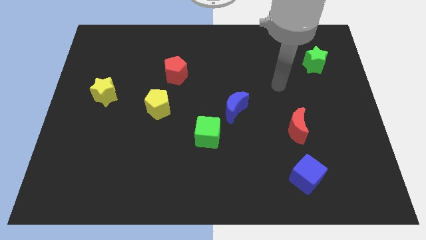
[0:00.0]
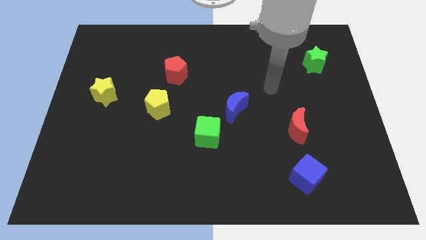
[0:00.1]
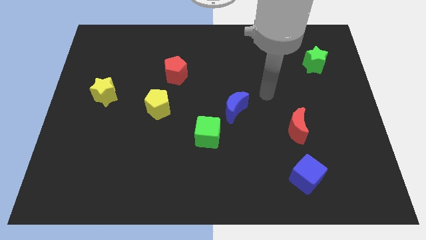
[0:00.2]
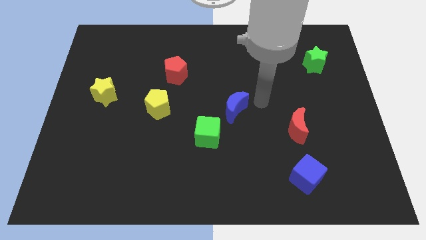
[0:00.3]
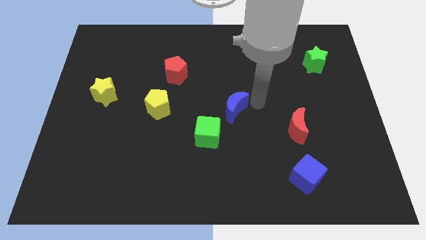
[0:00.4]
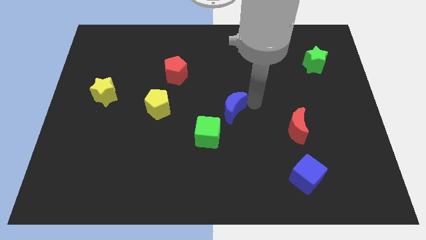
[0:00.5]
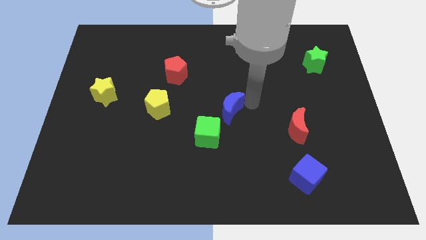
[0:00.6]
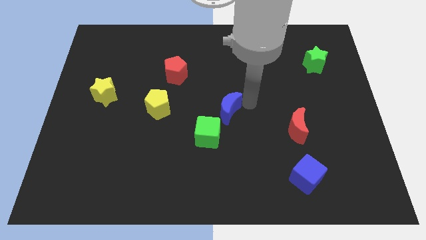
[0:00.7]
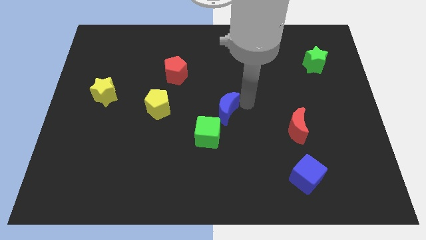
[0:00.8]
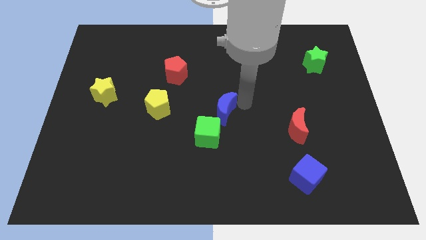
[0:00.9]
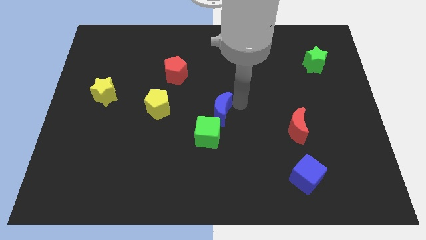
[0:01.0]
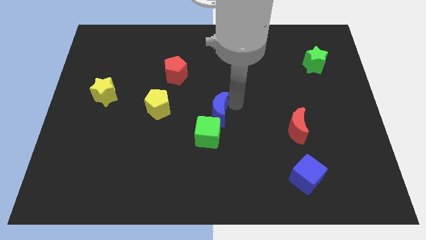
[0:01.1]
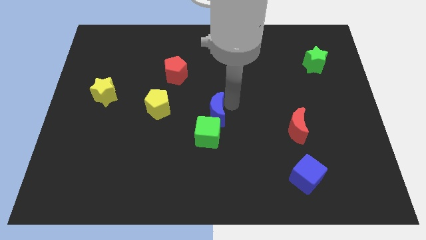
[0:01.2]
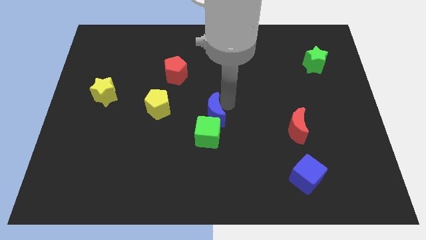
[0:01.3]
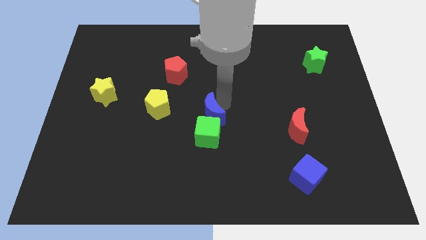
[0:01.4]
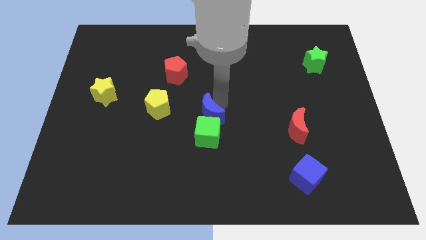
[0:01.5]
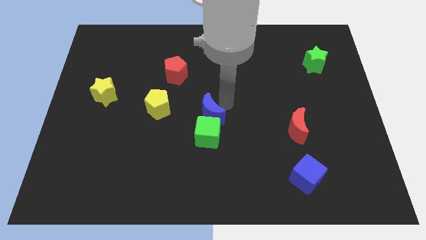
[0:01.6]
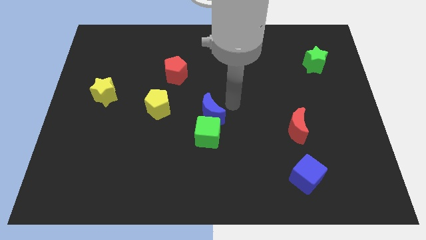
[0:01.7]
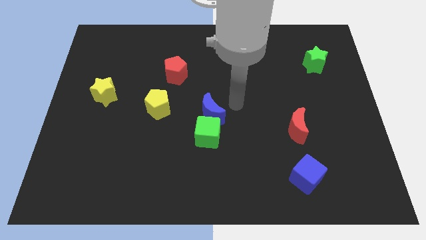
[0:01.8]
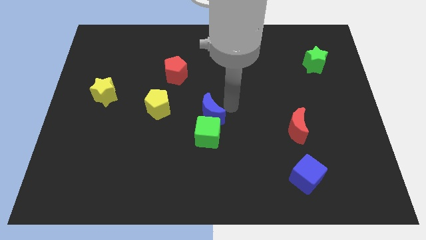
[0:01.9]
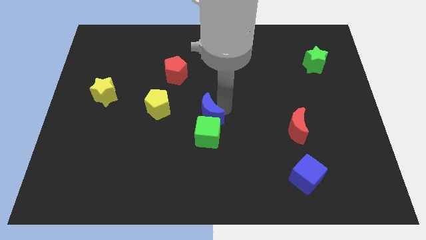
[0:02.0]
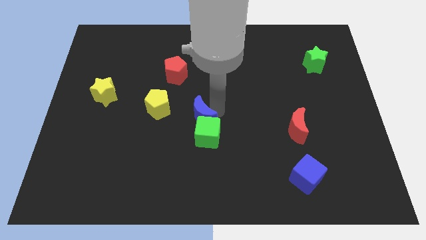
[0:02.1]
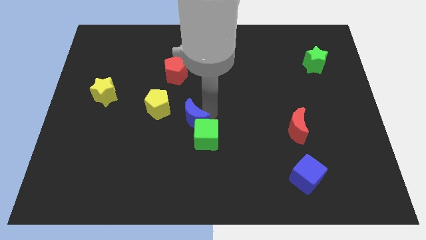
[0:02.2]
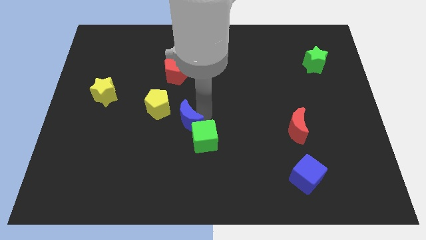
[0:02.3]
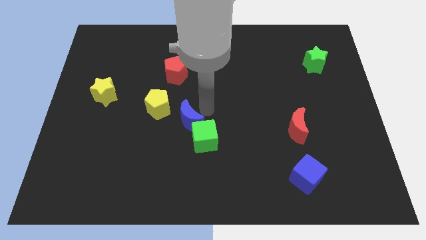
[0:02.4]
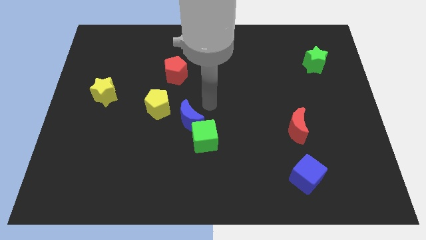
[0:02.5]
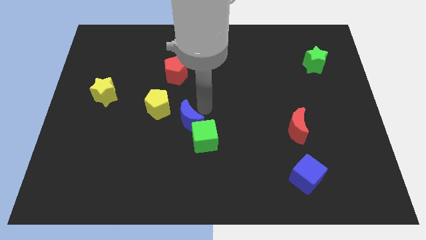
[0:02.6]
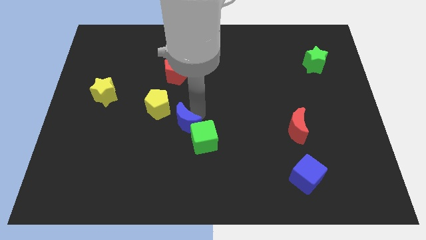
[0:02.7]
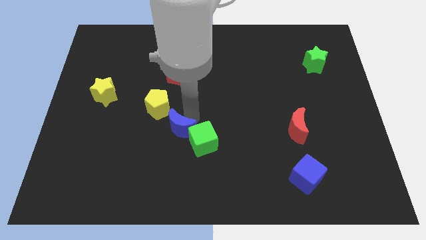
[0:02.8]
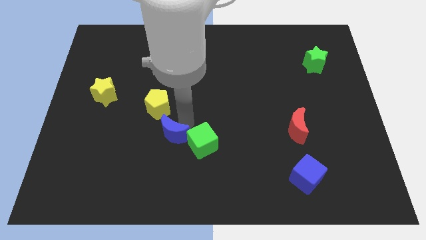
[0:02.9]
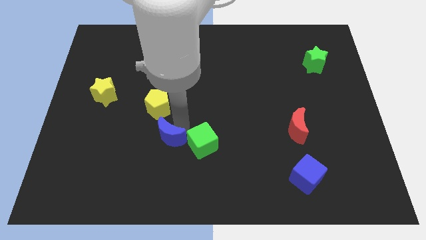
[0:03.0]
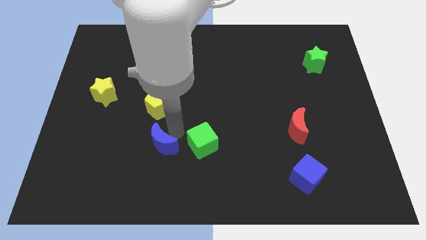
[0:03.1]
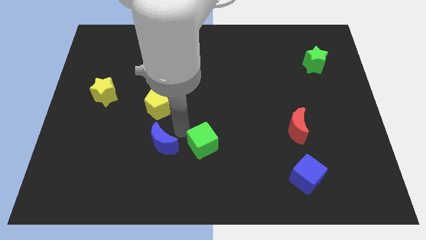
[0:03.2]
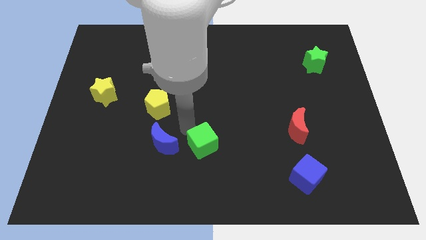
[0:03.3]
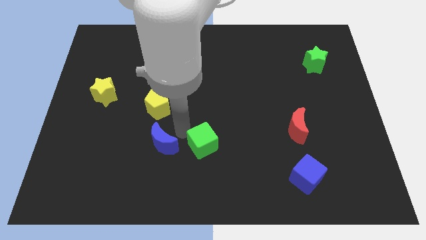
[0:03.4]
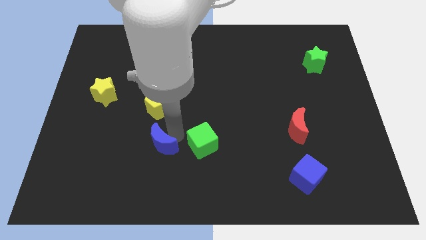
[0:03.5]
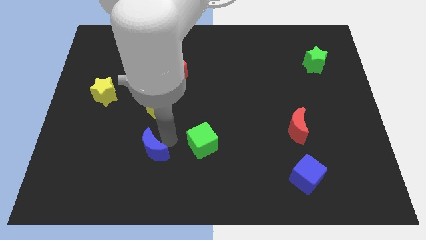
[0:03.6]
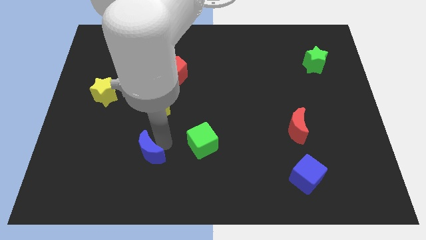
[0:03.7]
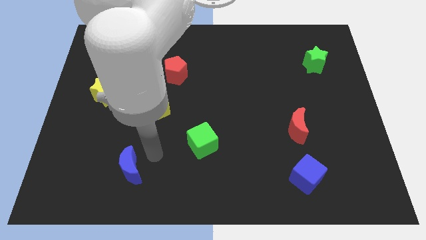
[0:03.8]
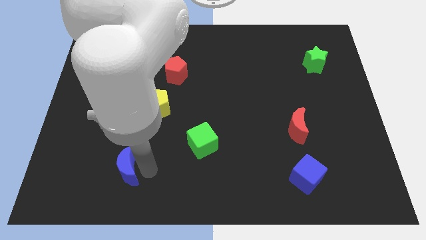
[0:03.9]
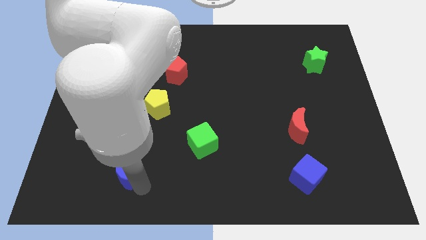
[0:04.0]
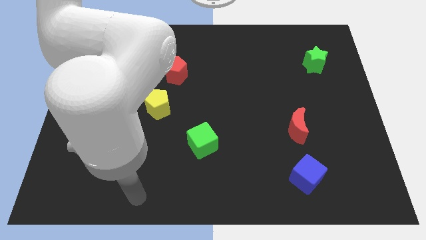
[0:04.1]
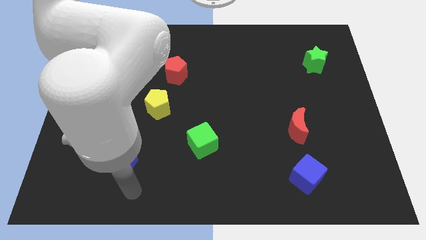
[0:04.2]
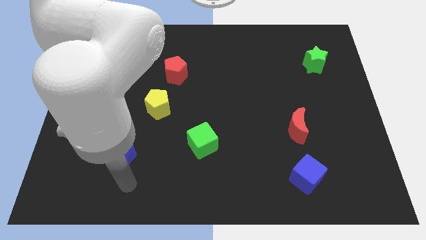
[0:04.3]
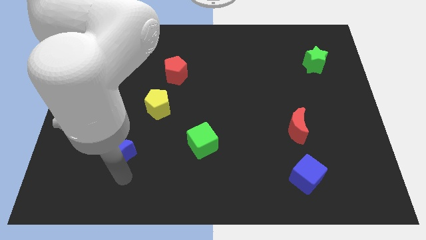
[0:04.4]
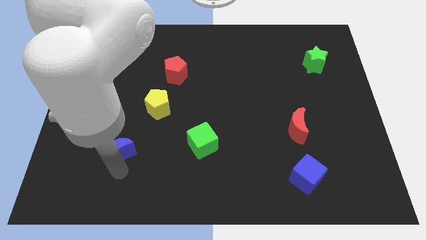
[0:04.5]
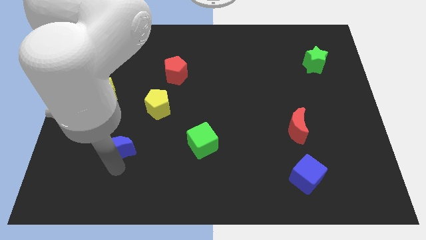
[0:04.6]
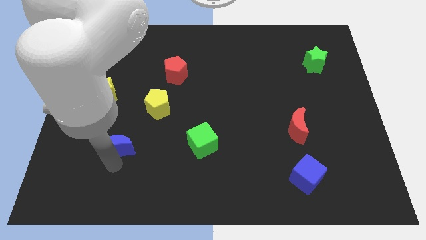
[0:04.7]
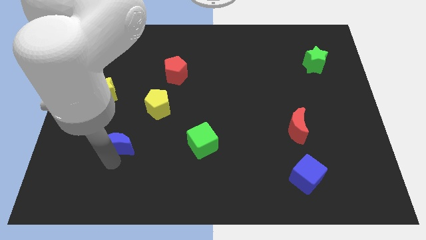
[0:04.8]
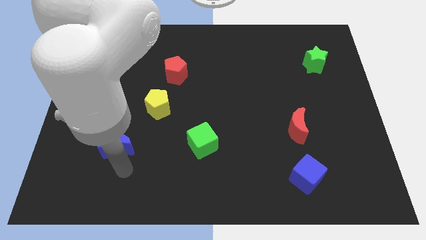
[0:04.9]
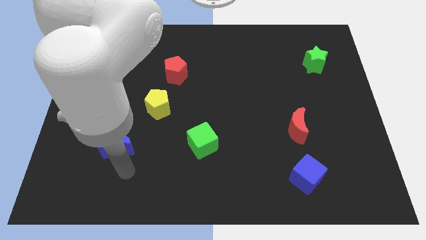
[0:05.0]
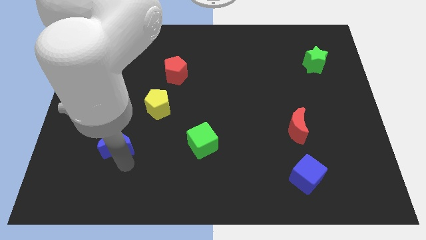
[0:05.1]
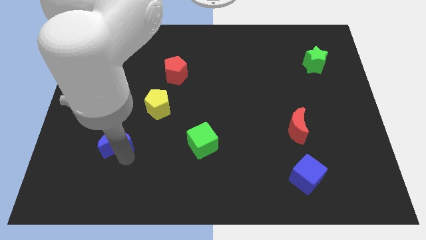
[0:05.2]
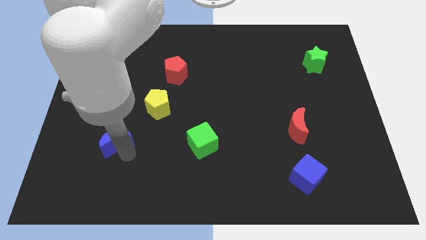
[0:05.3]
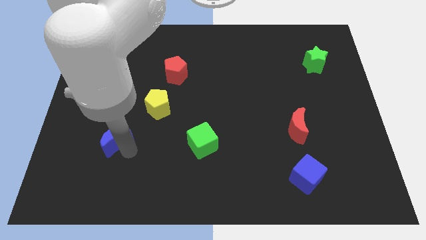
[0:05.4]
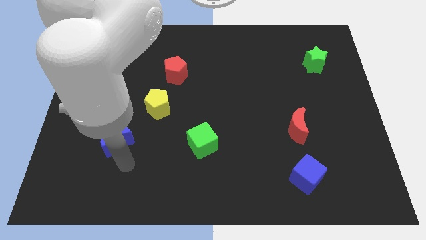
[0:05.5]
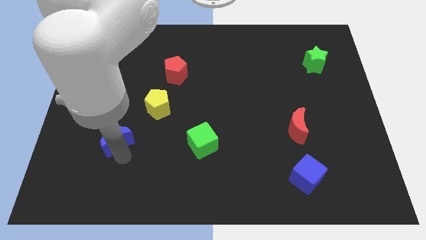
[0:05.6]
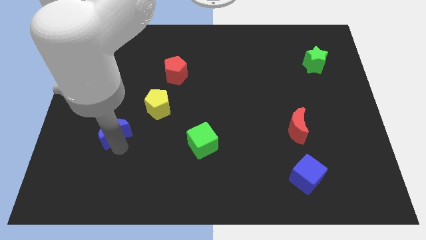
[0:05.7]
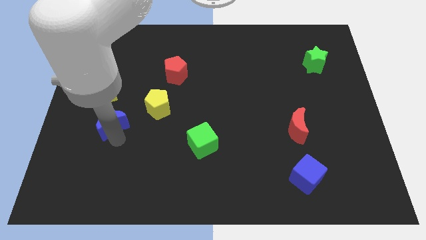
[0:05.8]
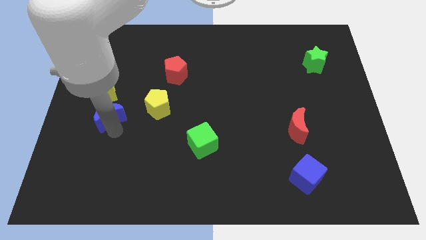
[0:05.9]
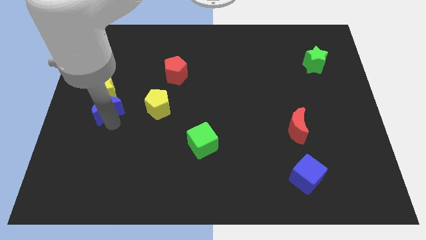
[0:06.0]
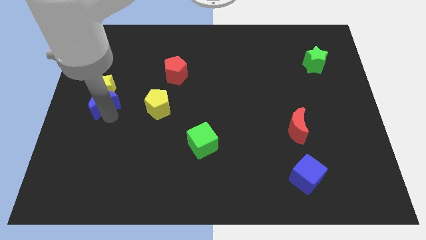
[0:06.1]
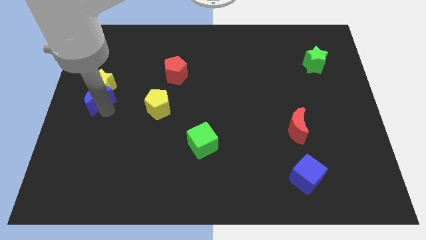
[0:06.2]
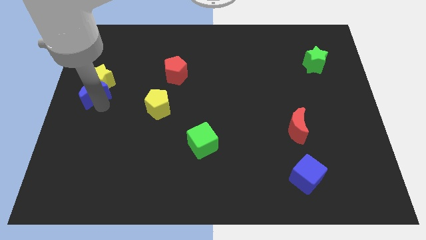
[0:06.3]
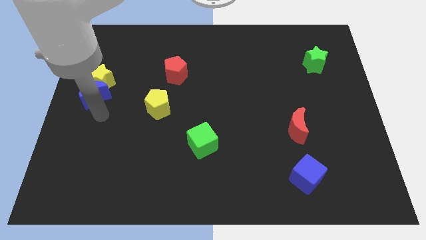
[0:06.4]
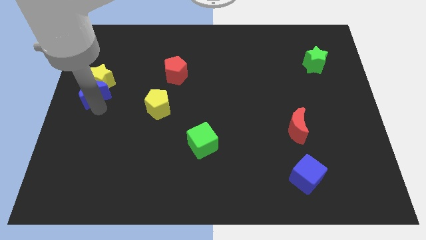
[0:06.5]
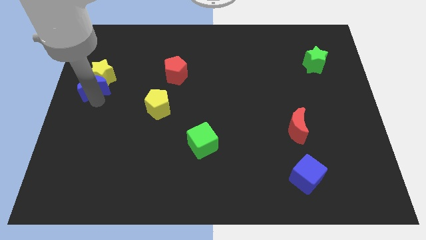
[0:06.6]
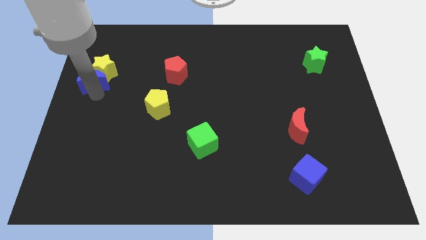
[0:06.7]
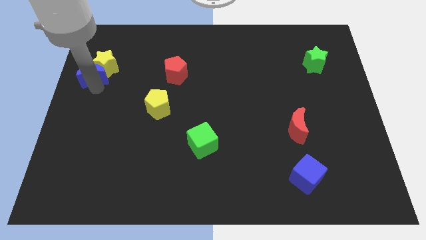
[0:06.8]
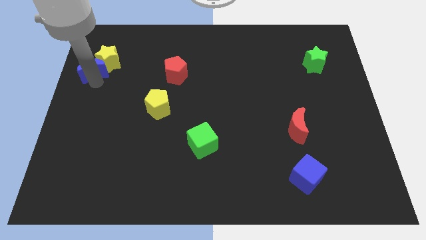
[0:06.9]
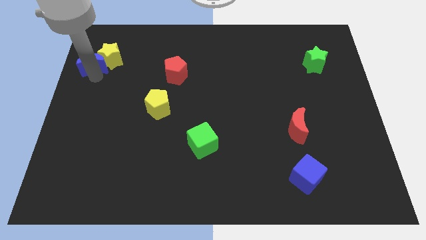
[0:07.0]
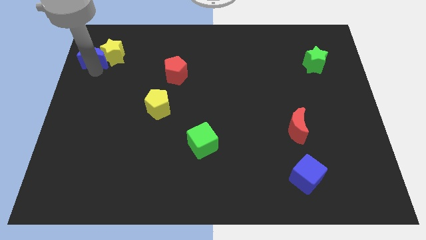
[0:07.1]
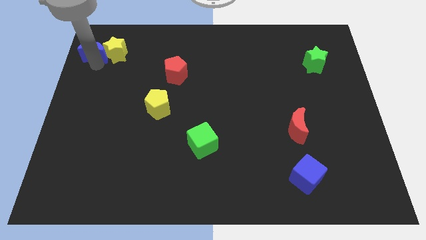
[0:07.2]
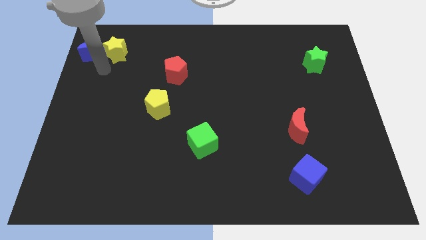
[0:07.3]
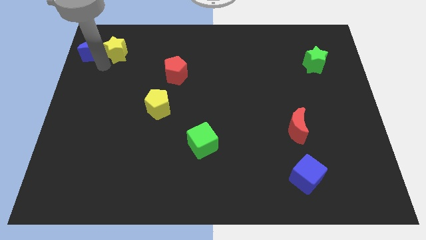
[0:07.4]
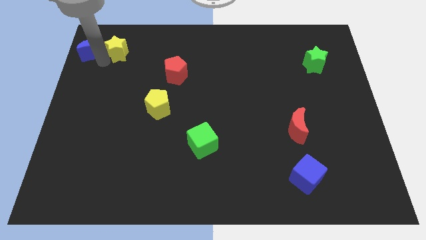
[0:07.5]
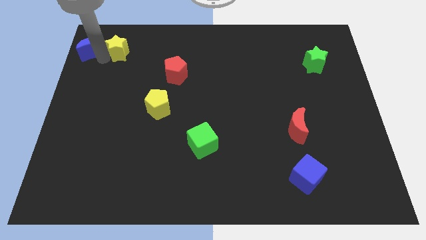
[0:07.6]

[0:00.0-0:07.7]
push the blue moon to the top left of the board
